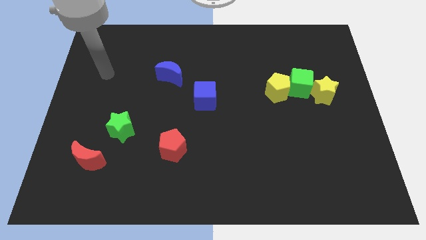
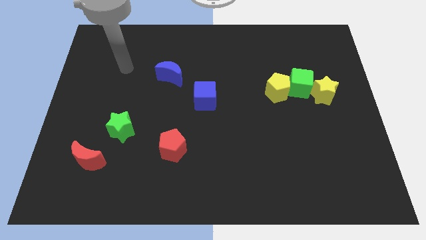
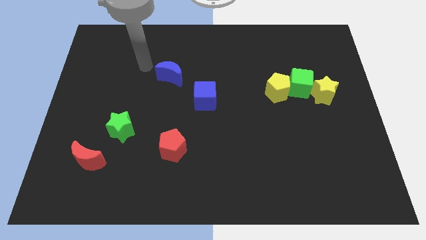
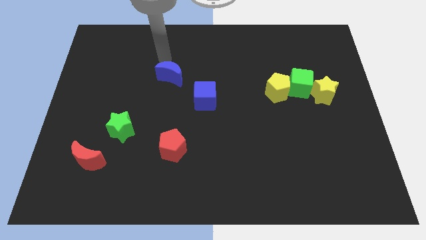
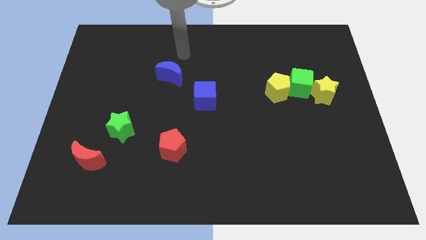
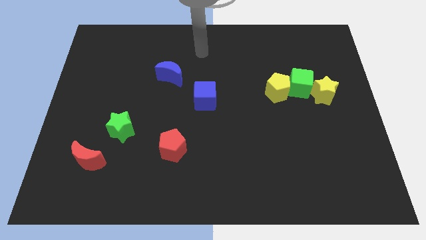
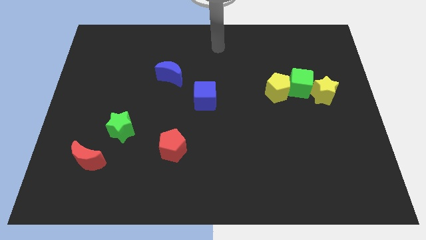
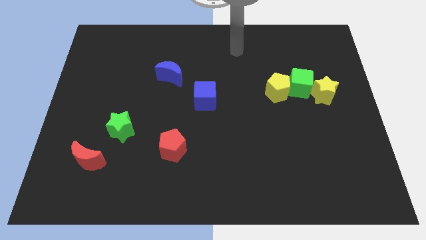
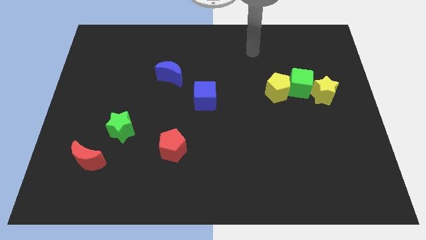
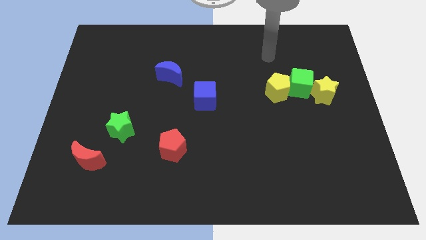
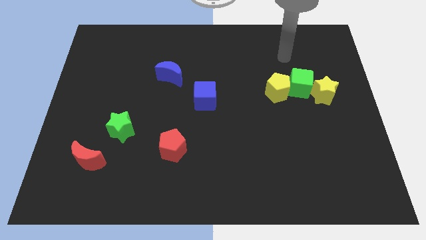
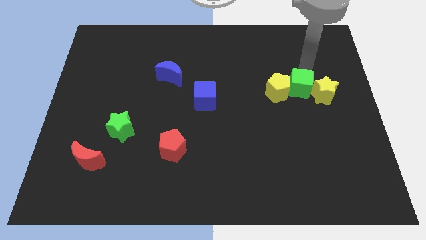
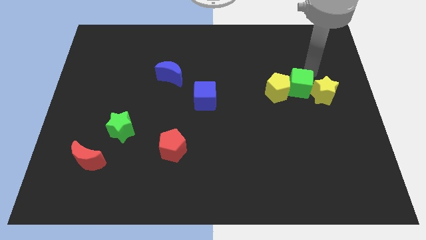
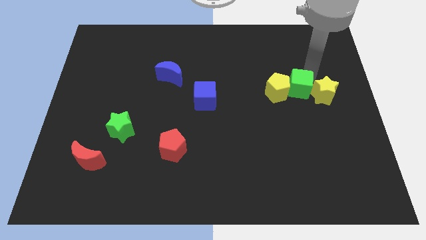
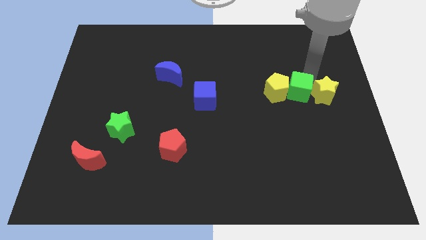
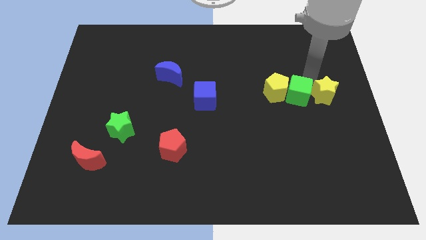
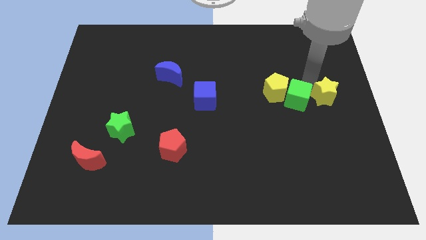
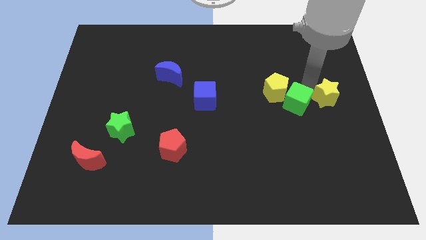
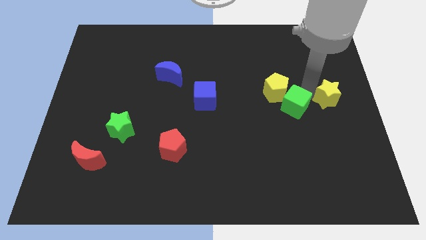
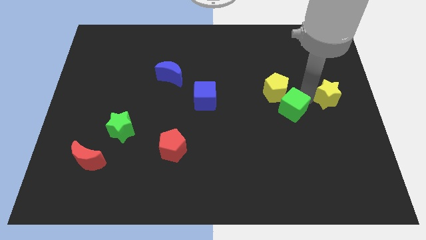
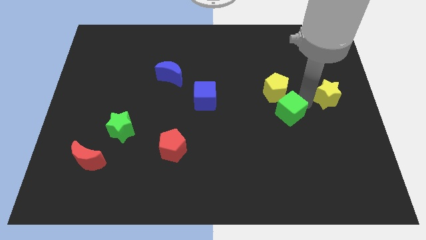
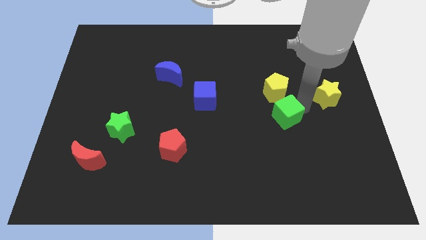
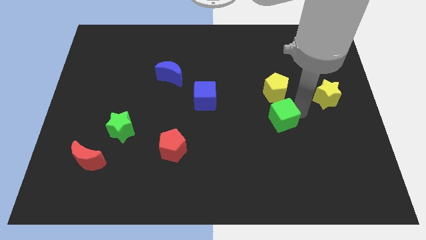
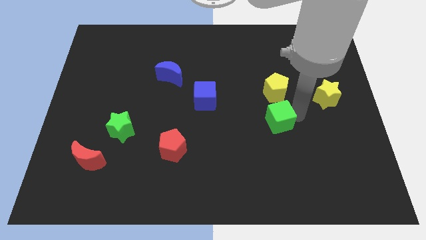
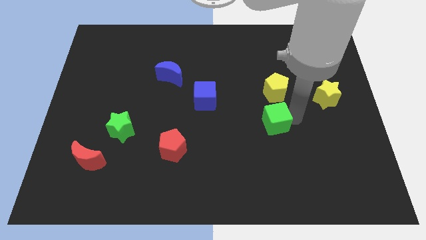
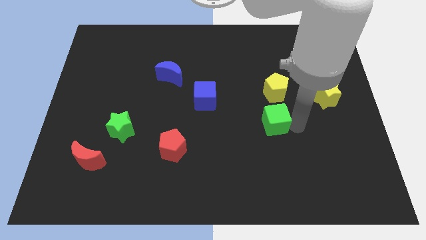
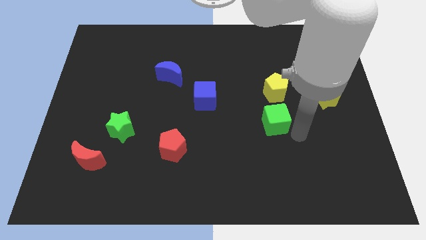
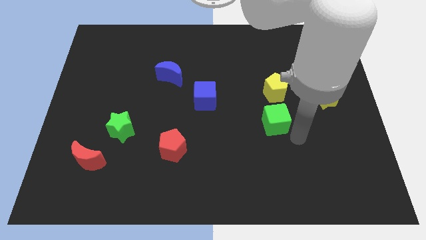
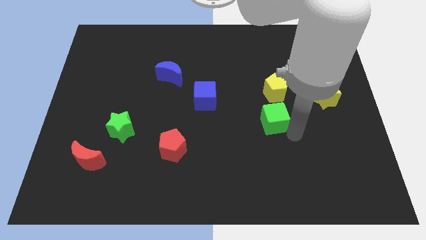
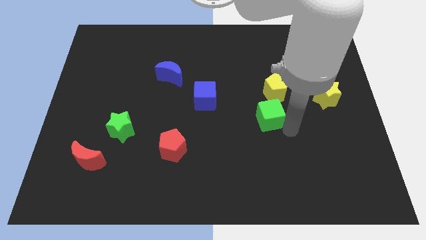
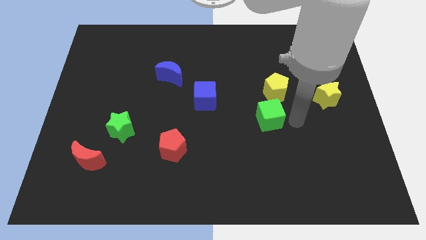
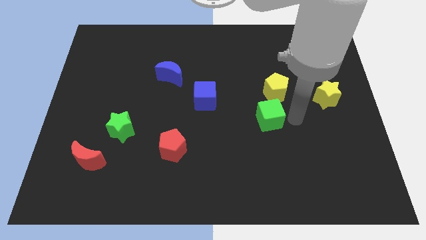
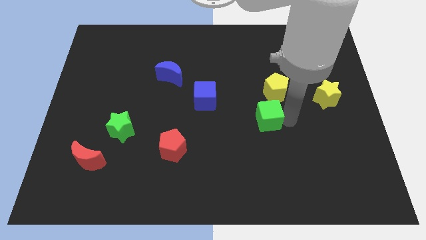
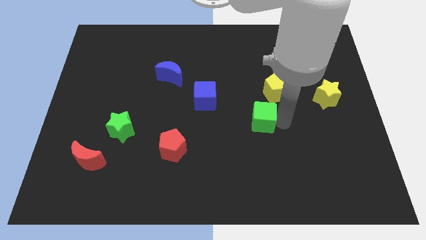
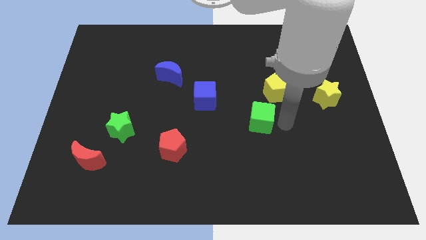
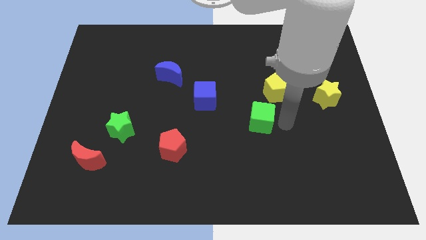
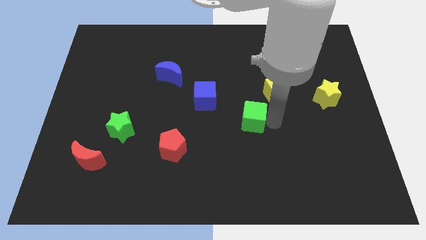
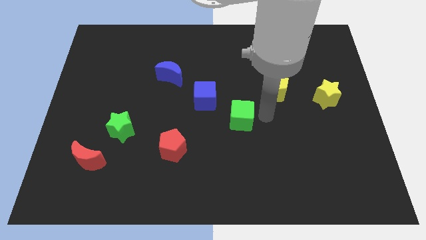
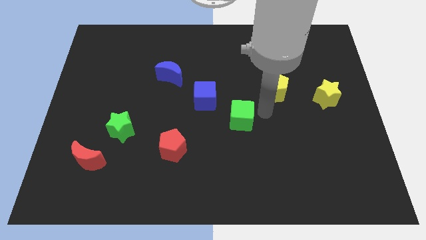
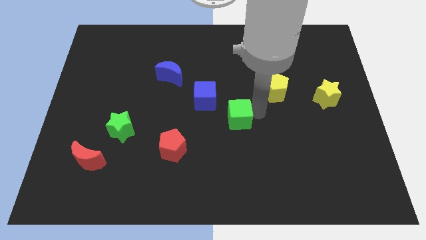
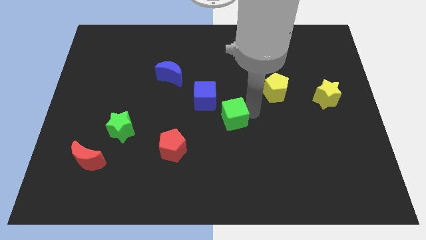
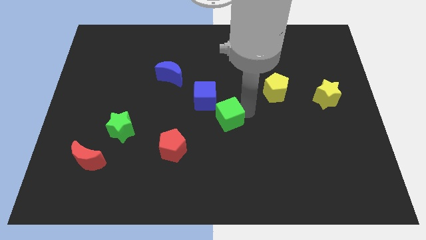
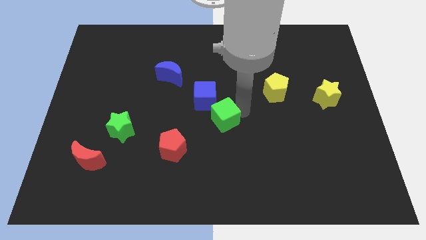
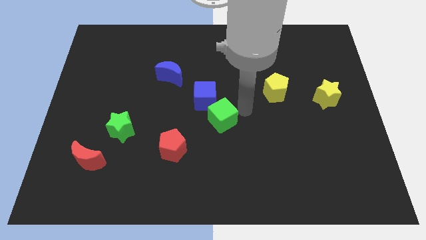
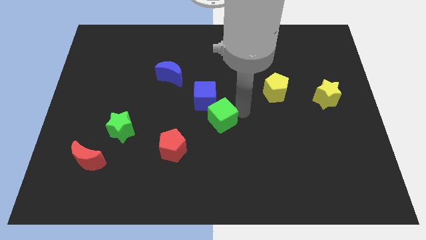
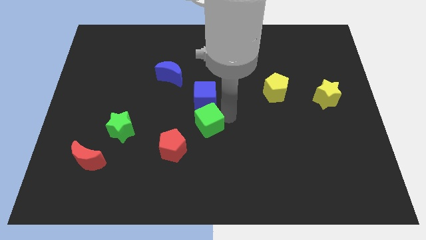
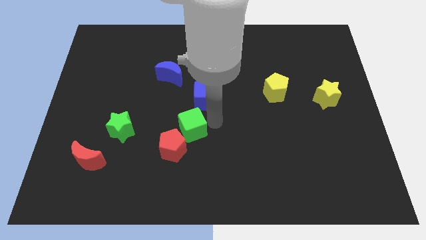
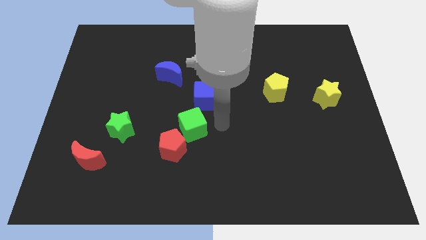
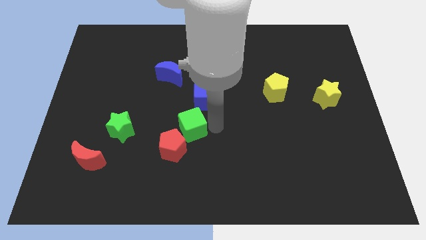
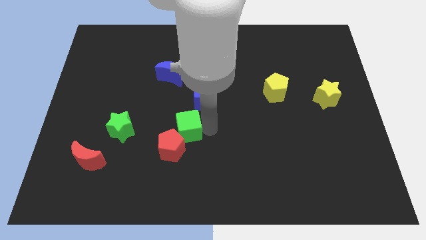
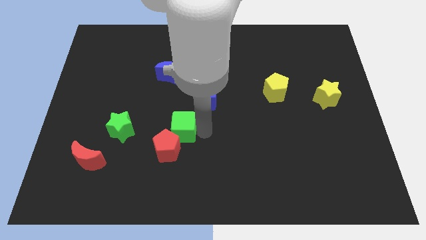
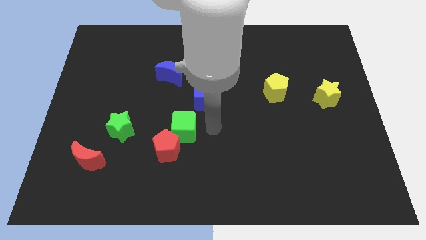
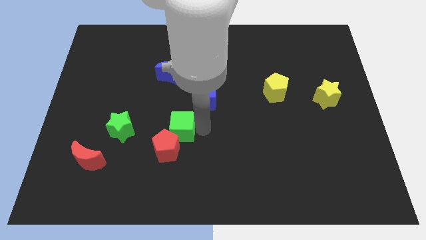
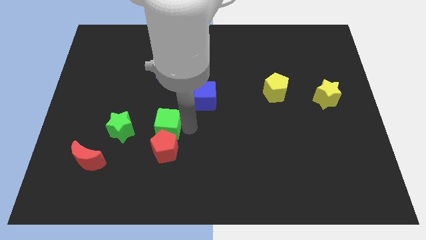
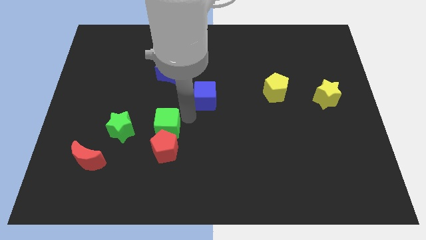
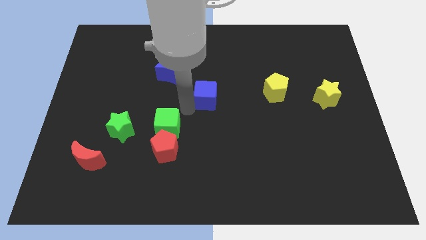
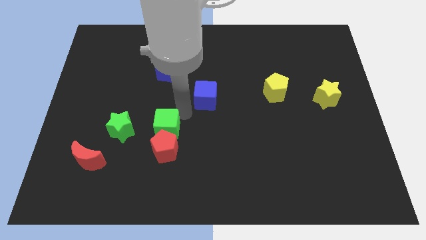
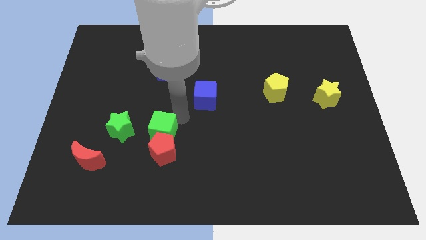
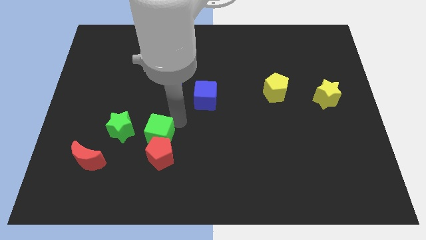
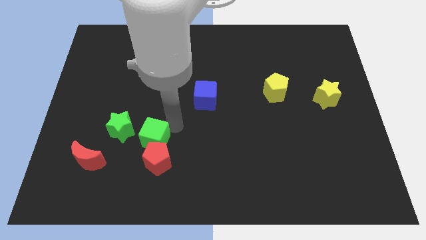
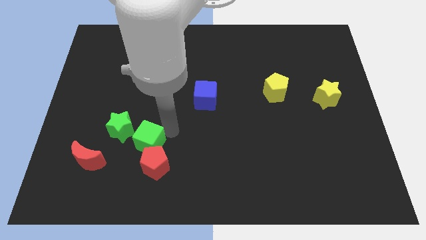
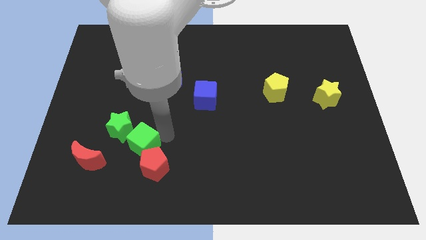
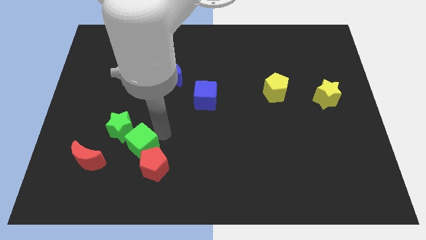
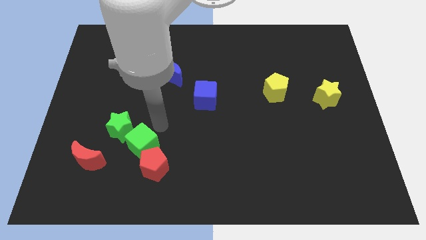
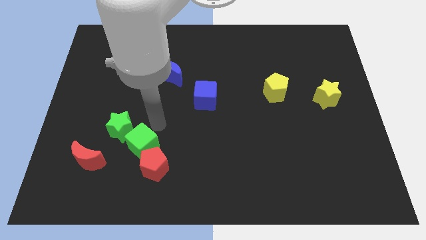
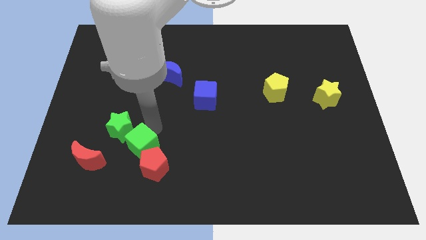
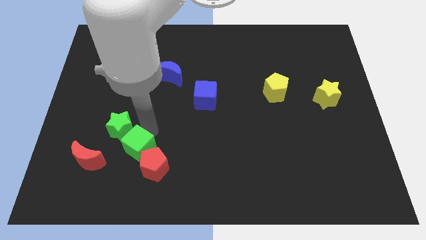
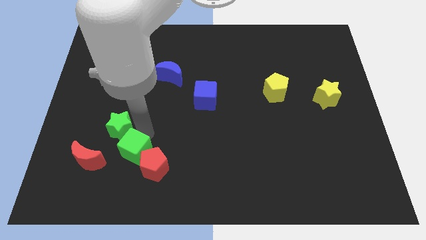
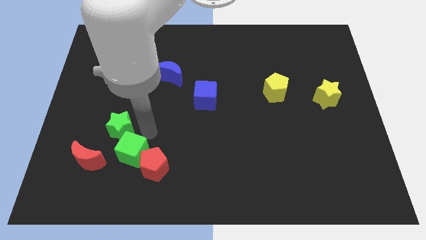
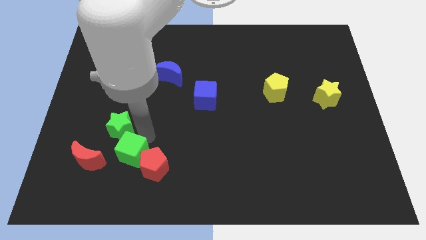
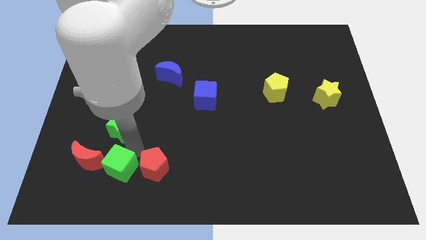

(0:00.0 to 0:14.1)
put the green cube diagonally down and to the right of the red moon
